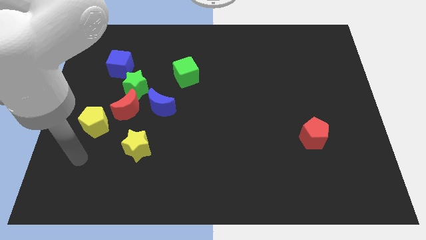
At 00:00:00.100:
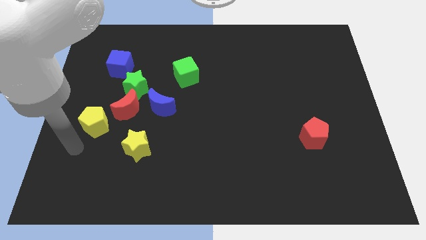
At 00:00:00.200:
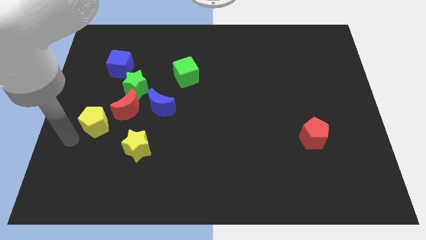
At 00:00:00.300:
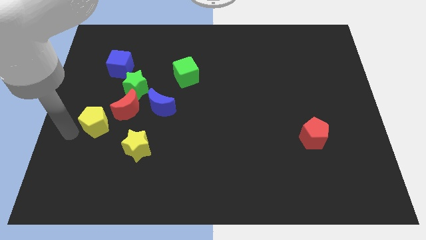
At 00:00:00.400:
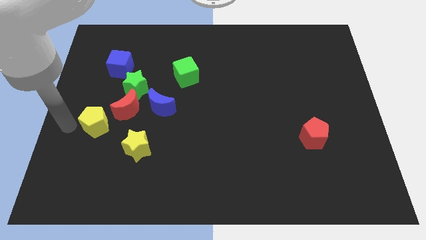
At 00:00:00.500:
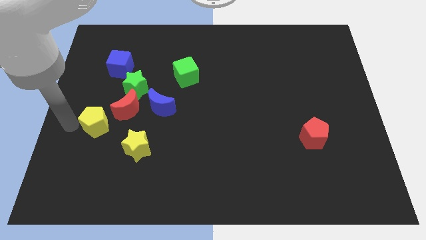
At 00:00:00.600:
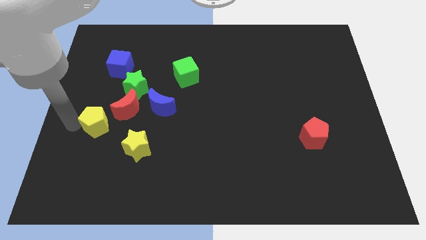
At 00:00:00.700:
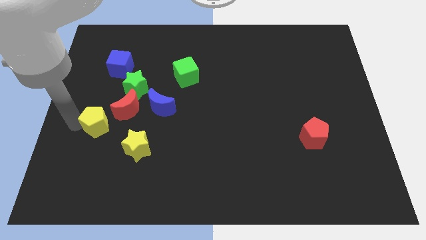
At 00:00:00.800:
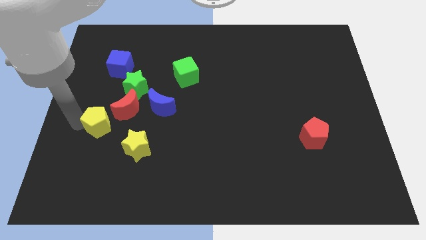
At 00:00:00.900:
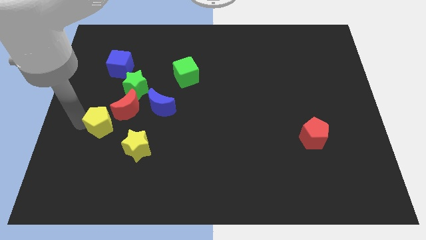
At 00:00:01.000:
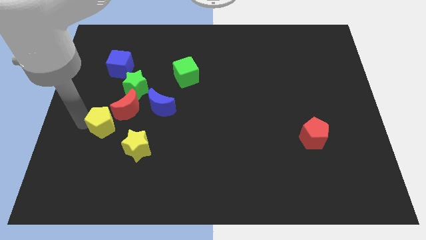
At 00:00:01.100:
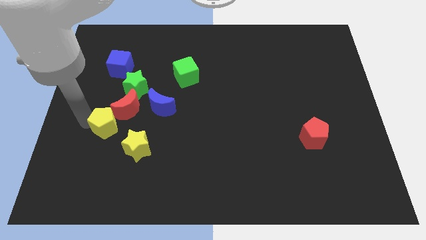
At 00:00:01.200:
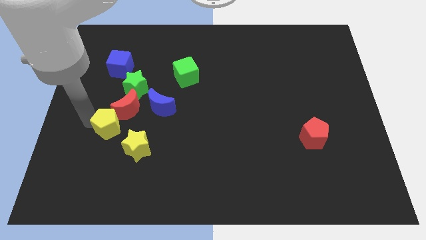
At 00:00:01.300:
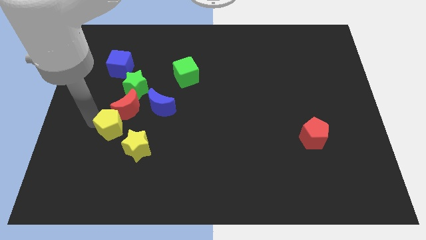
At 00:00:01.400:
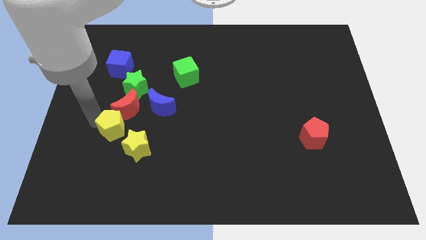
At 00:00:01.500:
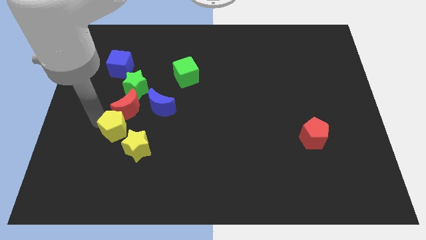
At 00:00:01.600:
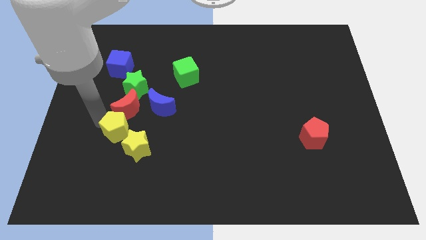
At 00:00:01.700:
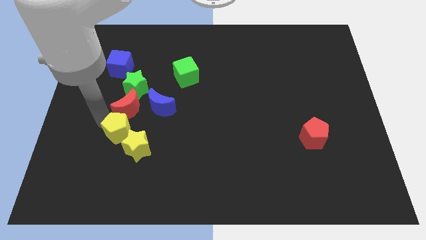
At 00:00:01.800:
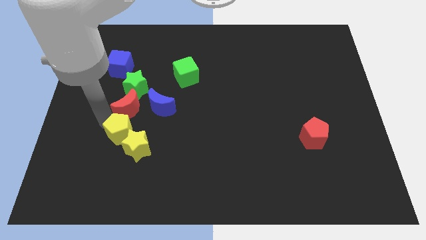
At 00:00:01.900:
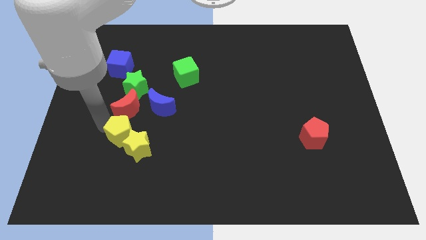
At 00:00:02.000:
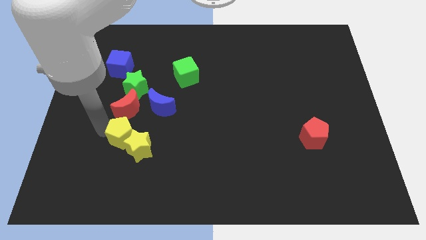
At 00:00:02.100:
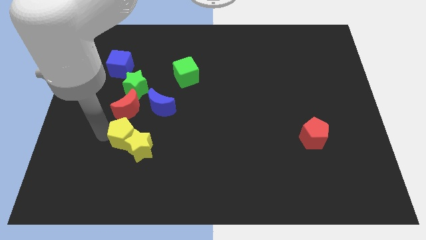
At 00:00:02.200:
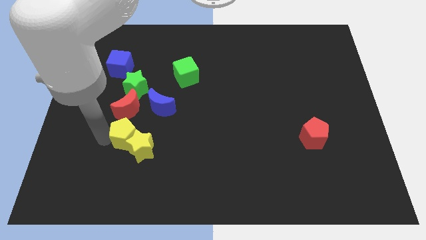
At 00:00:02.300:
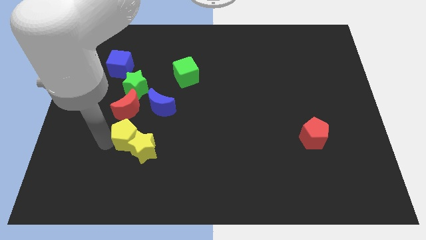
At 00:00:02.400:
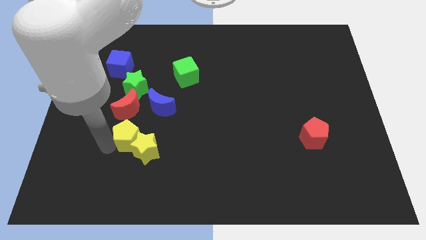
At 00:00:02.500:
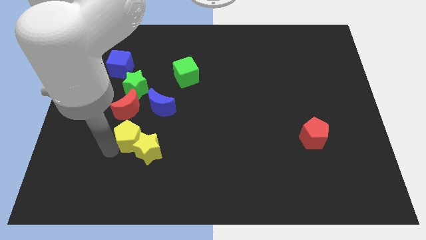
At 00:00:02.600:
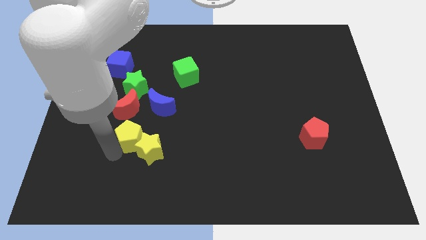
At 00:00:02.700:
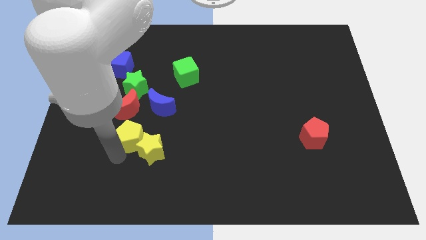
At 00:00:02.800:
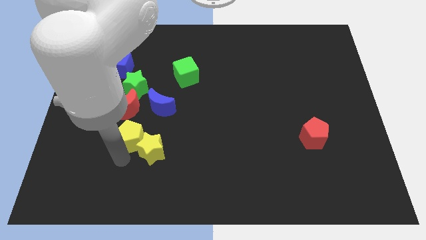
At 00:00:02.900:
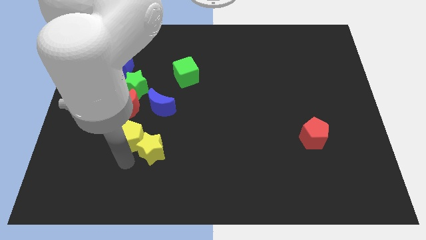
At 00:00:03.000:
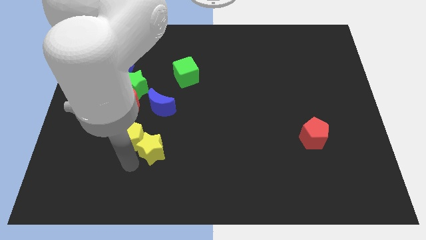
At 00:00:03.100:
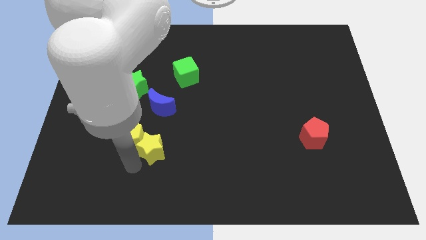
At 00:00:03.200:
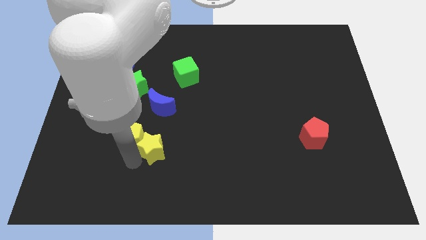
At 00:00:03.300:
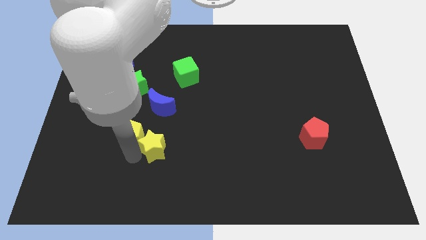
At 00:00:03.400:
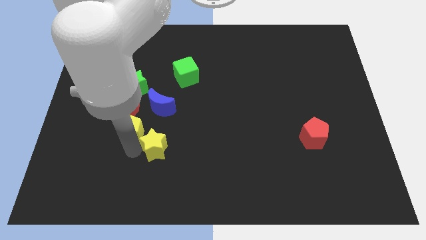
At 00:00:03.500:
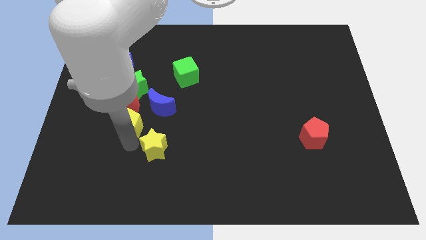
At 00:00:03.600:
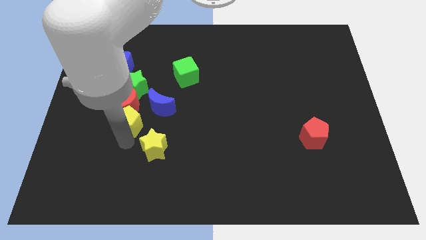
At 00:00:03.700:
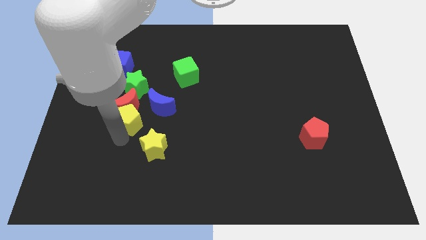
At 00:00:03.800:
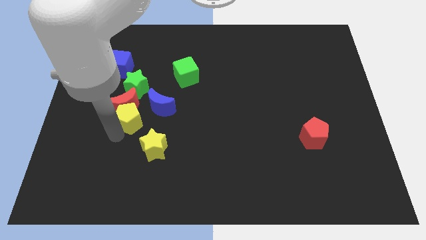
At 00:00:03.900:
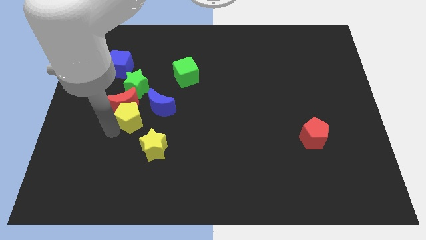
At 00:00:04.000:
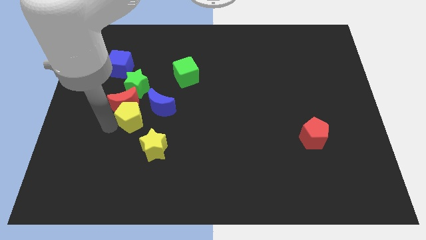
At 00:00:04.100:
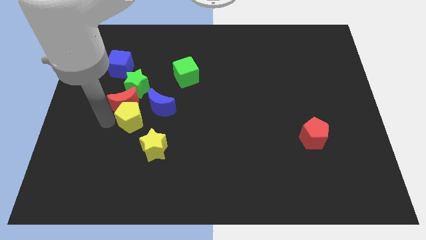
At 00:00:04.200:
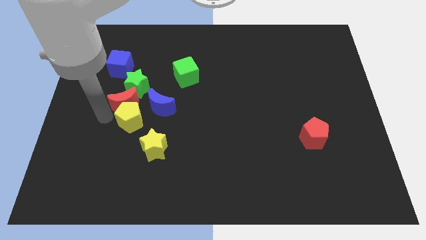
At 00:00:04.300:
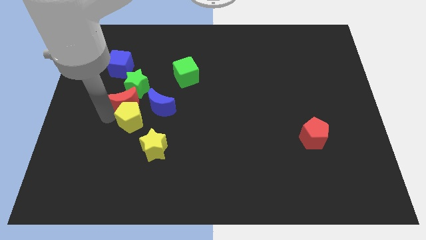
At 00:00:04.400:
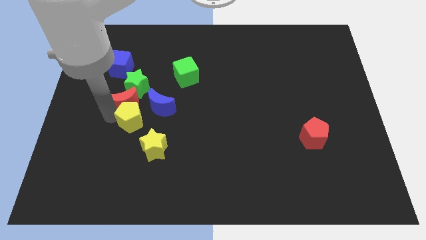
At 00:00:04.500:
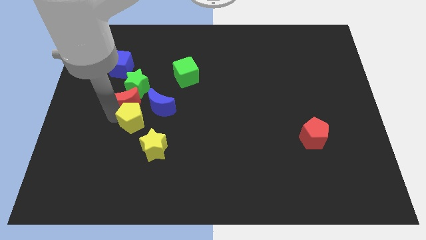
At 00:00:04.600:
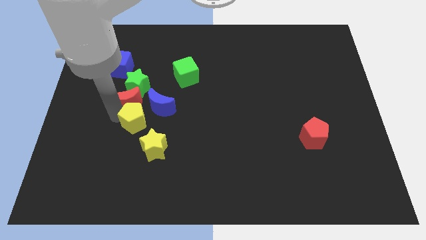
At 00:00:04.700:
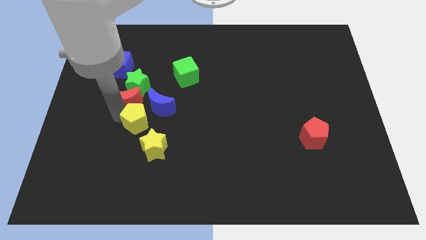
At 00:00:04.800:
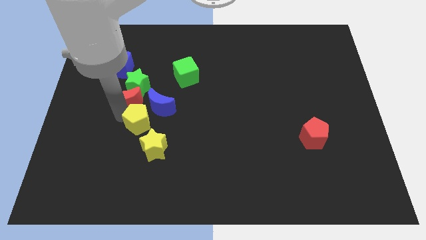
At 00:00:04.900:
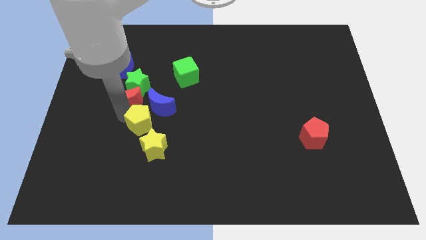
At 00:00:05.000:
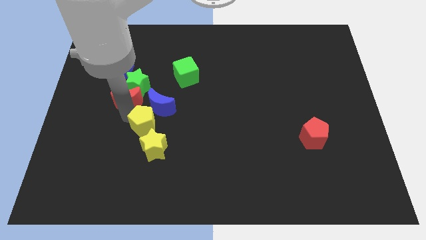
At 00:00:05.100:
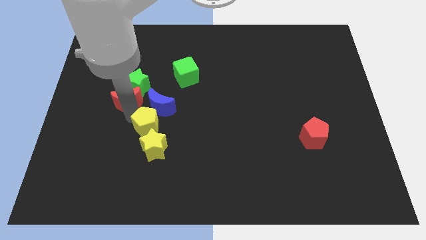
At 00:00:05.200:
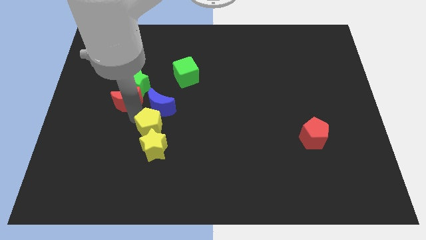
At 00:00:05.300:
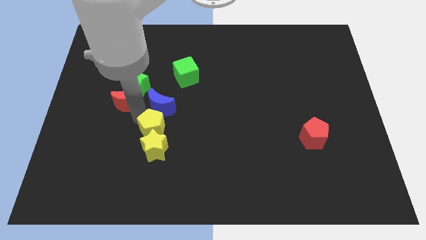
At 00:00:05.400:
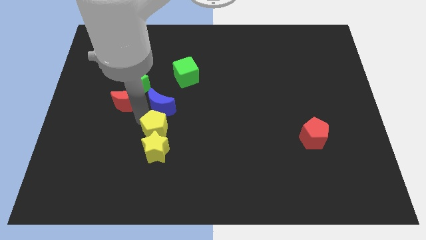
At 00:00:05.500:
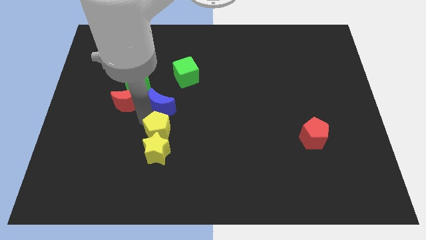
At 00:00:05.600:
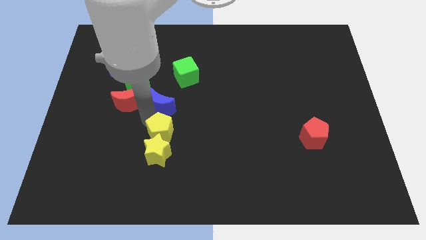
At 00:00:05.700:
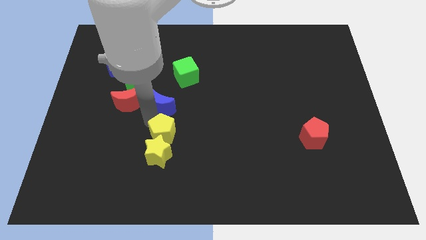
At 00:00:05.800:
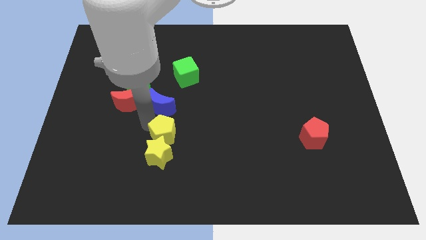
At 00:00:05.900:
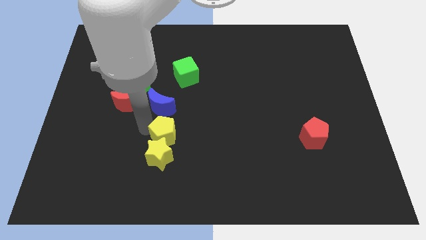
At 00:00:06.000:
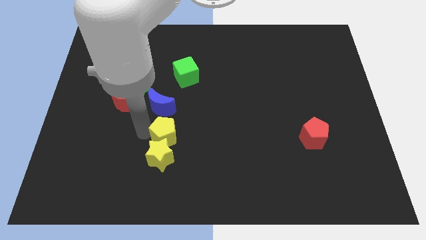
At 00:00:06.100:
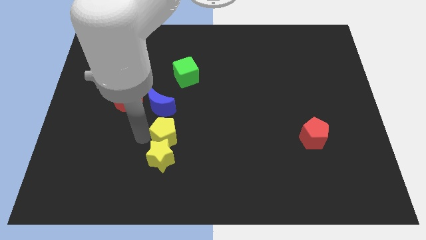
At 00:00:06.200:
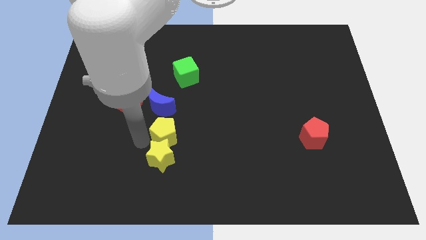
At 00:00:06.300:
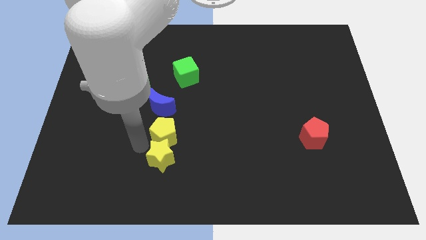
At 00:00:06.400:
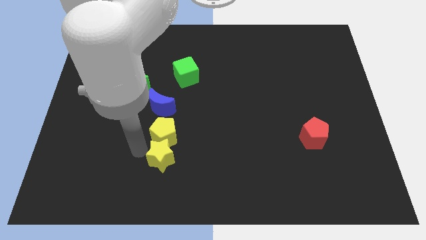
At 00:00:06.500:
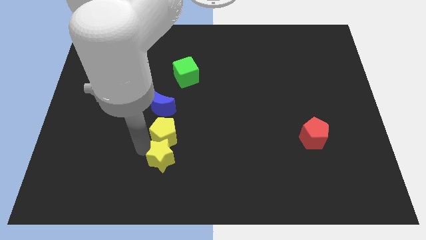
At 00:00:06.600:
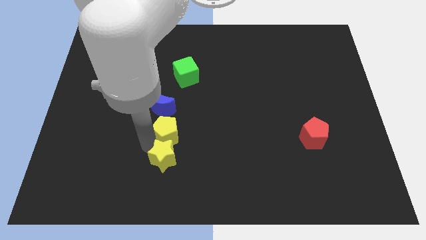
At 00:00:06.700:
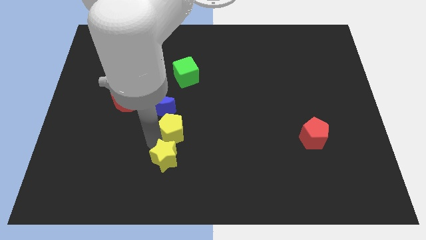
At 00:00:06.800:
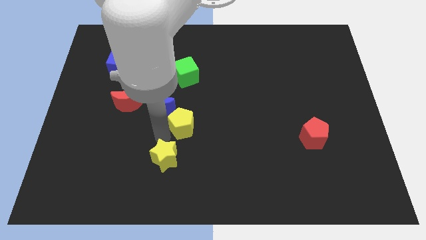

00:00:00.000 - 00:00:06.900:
slide the yellow pentagon right

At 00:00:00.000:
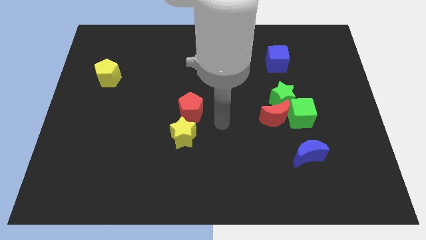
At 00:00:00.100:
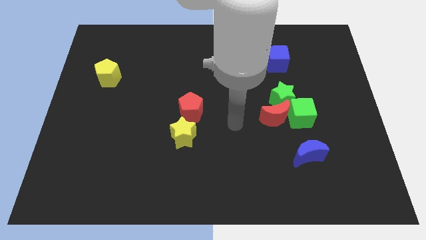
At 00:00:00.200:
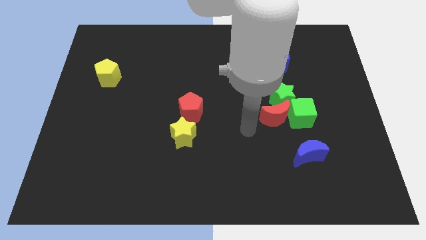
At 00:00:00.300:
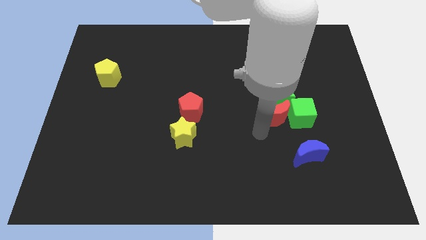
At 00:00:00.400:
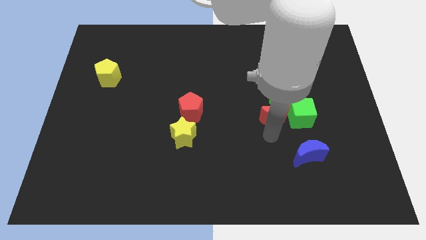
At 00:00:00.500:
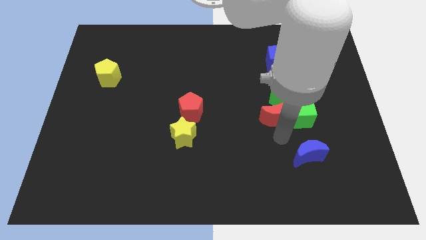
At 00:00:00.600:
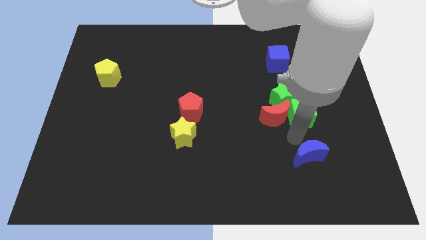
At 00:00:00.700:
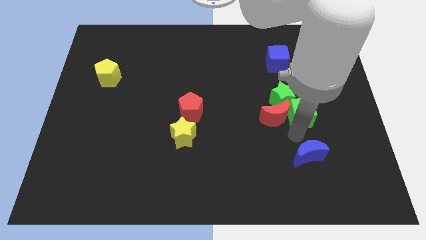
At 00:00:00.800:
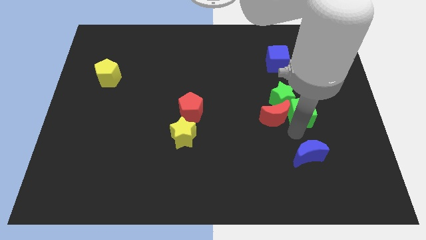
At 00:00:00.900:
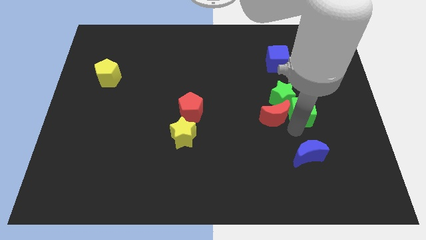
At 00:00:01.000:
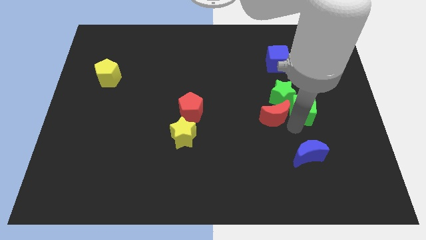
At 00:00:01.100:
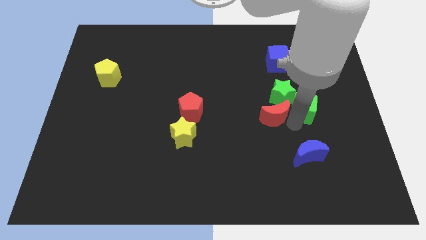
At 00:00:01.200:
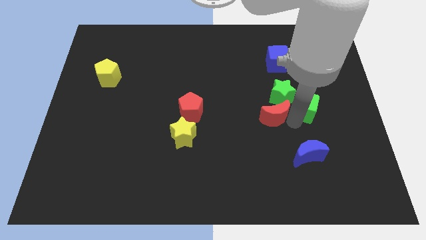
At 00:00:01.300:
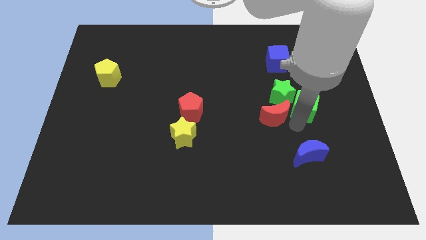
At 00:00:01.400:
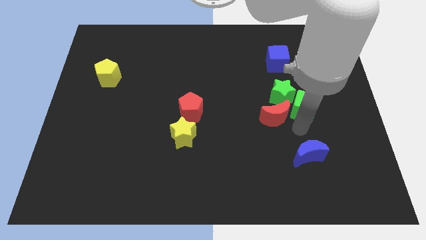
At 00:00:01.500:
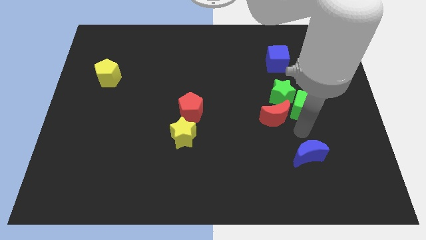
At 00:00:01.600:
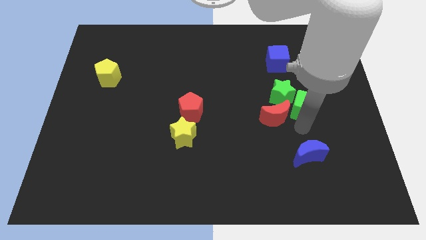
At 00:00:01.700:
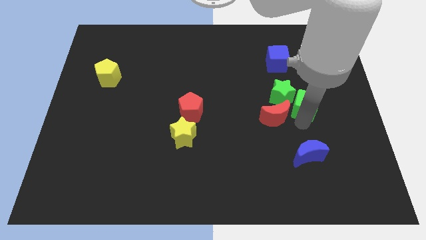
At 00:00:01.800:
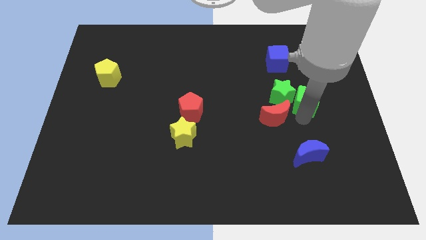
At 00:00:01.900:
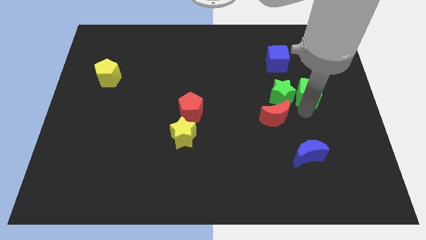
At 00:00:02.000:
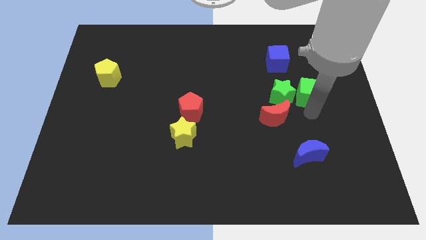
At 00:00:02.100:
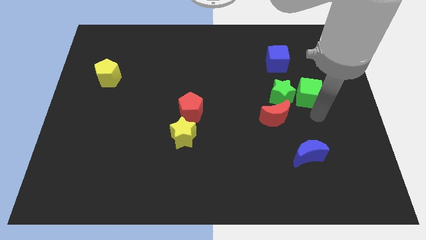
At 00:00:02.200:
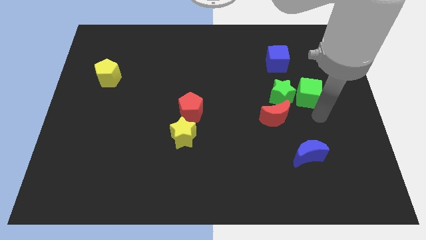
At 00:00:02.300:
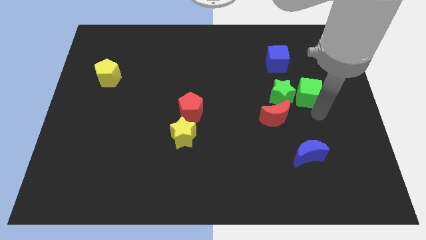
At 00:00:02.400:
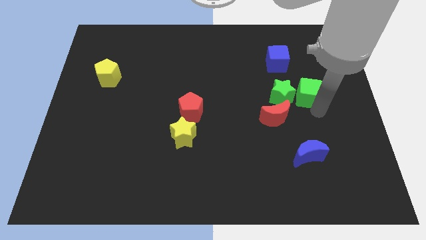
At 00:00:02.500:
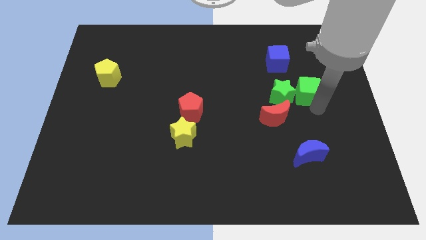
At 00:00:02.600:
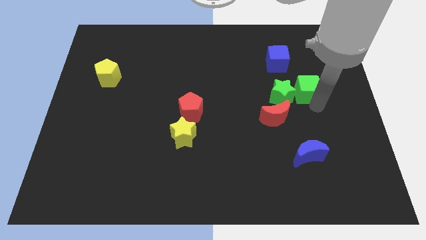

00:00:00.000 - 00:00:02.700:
move the green cube a little bit upwards
